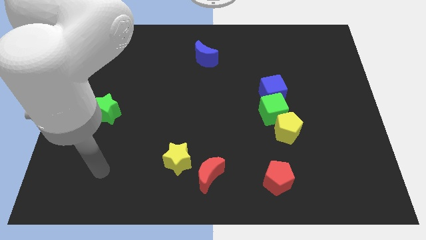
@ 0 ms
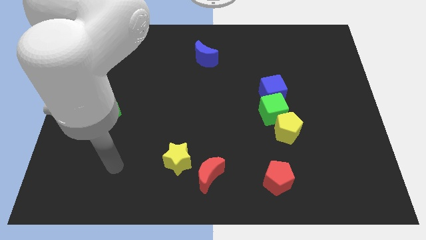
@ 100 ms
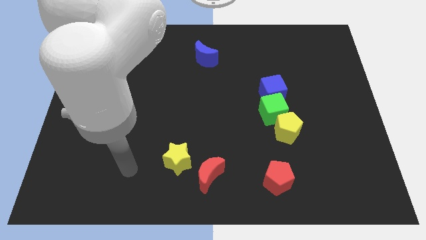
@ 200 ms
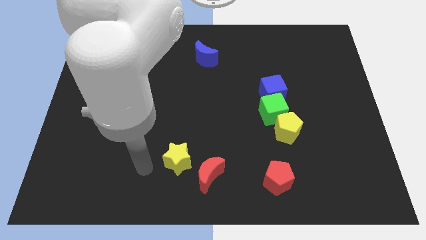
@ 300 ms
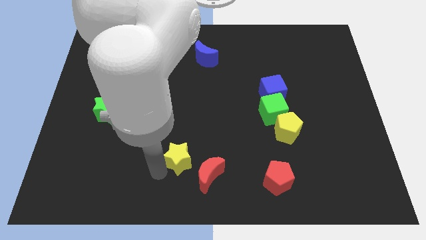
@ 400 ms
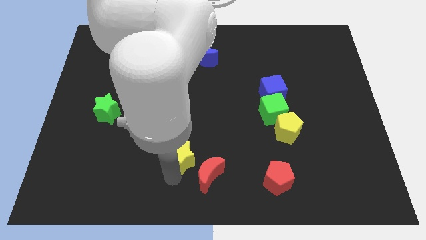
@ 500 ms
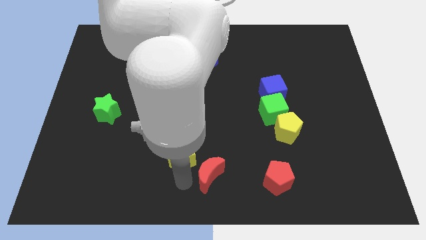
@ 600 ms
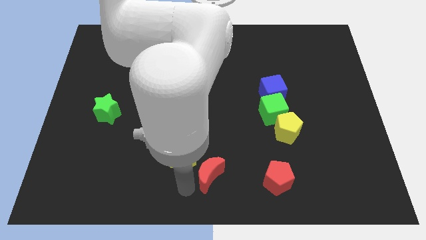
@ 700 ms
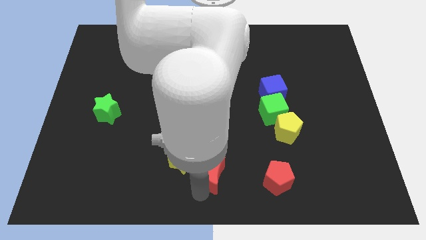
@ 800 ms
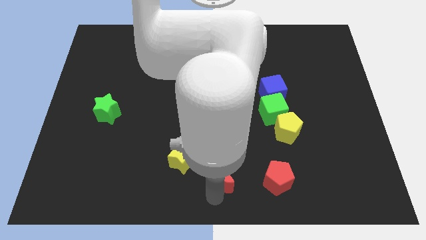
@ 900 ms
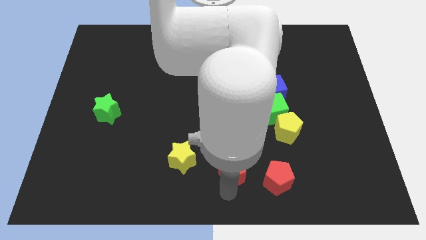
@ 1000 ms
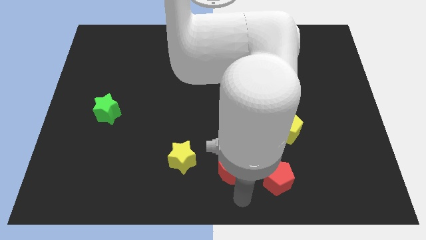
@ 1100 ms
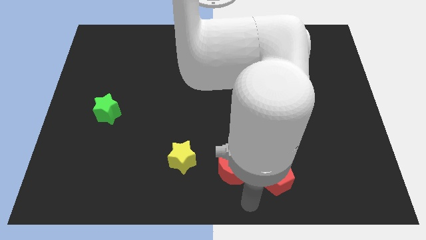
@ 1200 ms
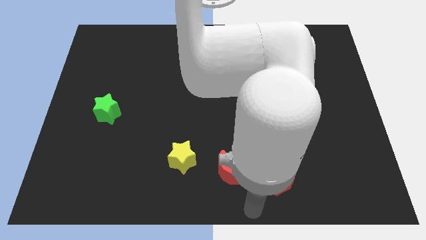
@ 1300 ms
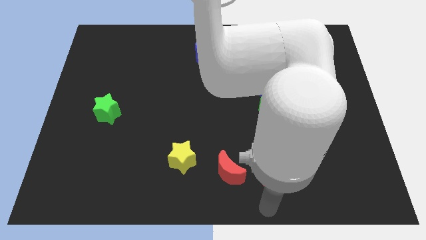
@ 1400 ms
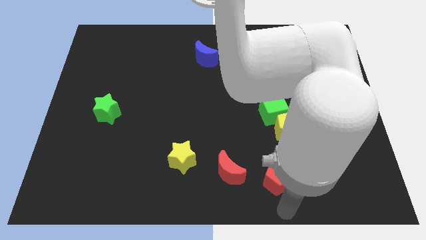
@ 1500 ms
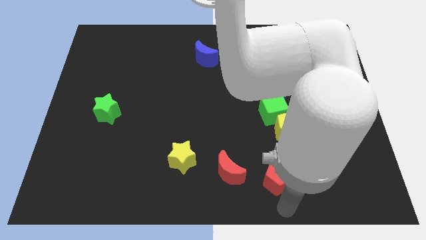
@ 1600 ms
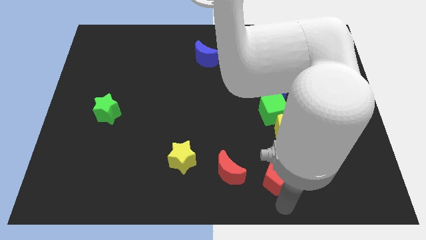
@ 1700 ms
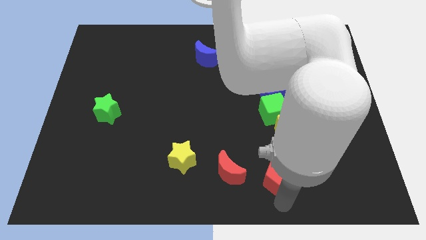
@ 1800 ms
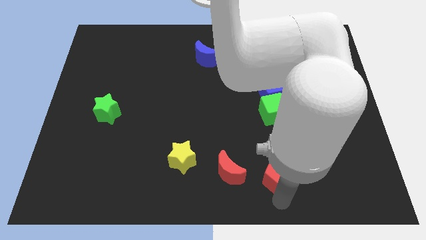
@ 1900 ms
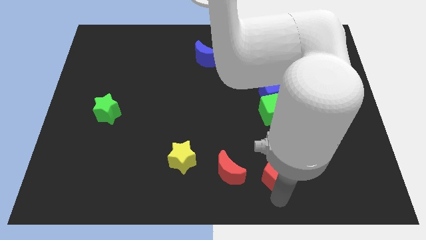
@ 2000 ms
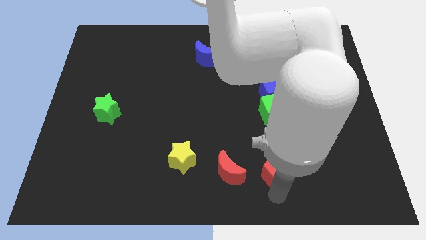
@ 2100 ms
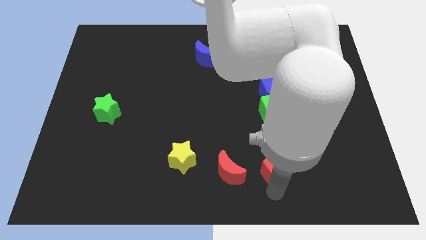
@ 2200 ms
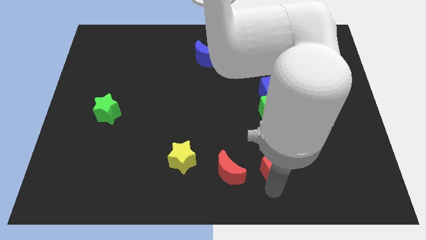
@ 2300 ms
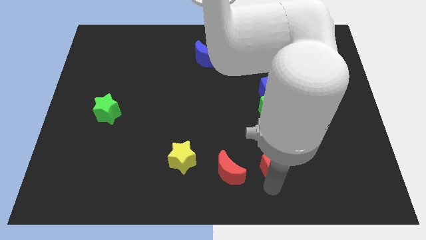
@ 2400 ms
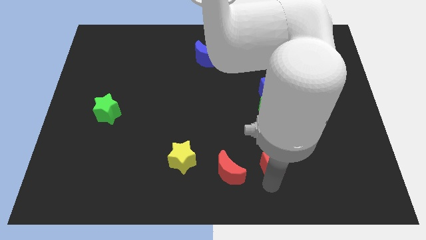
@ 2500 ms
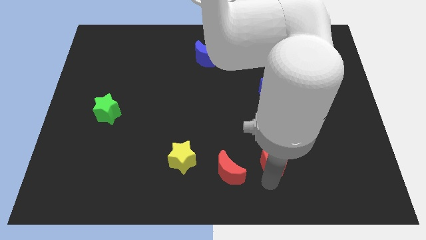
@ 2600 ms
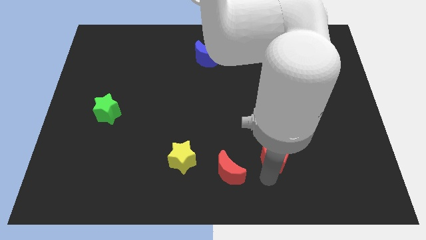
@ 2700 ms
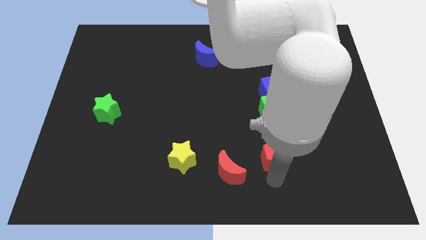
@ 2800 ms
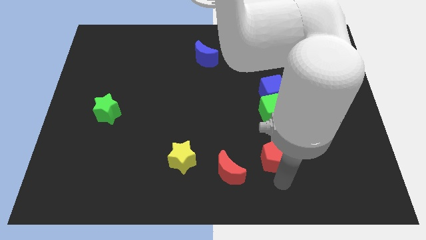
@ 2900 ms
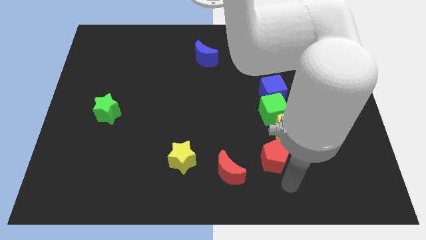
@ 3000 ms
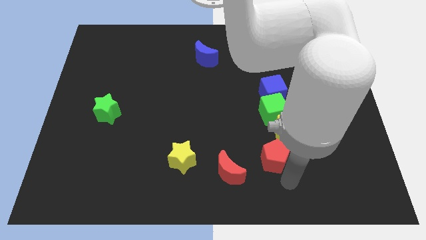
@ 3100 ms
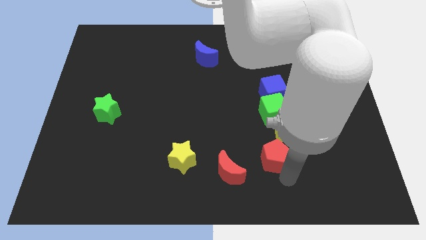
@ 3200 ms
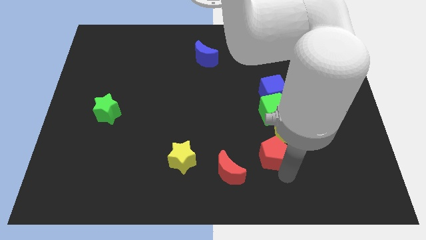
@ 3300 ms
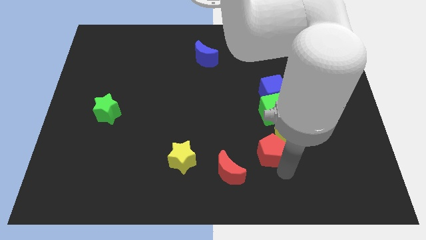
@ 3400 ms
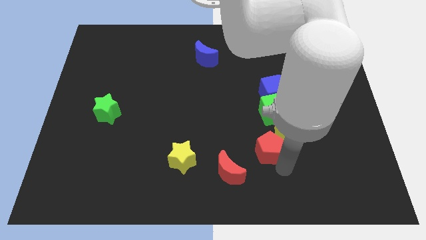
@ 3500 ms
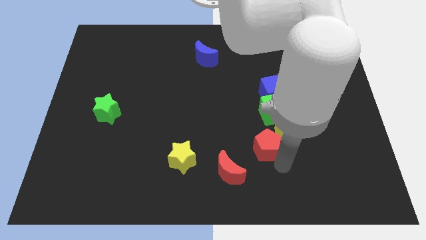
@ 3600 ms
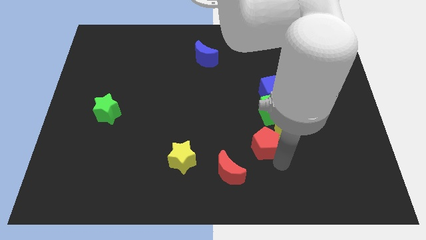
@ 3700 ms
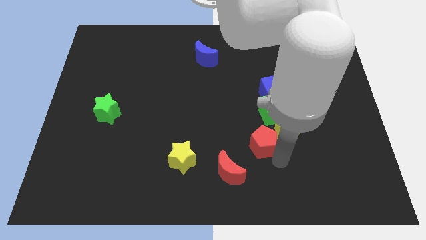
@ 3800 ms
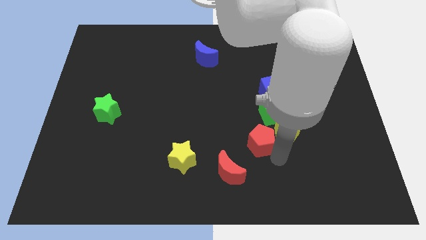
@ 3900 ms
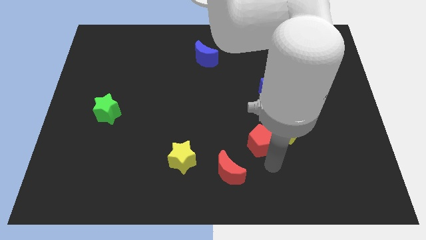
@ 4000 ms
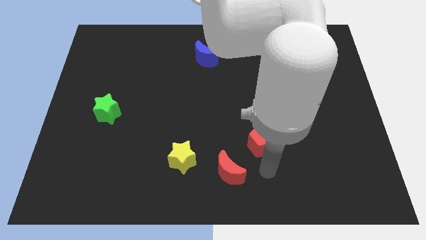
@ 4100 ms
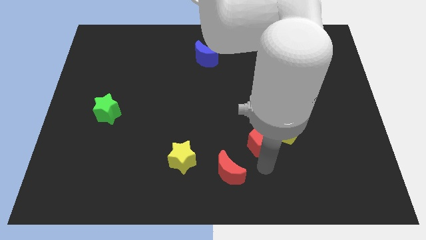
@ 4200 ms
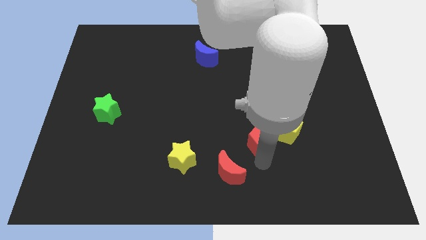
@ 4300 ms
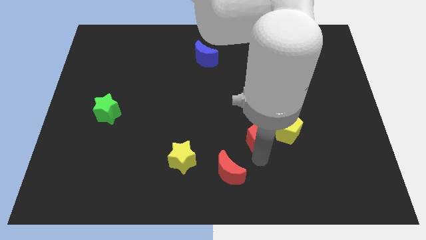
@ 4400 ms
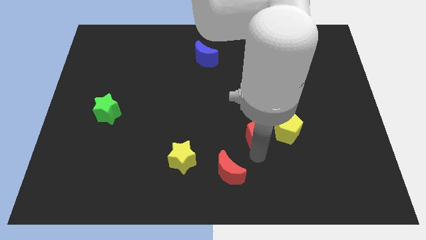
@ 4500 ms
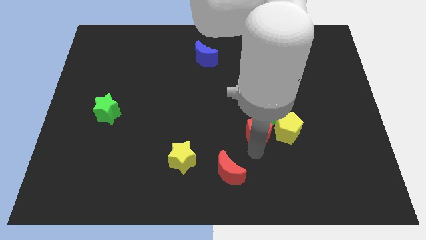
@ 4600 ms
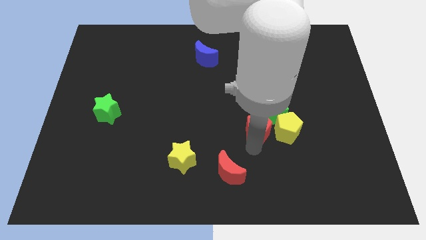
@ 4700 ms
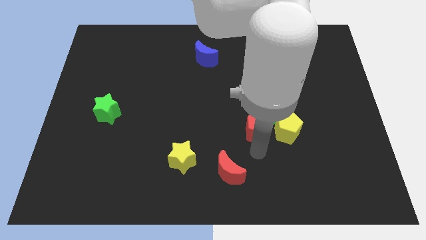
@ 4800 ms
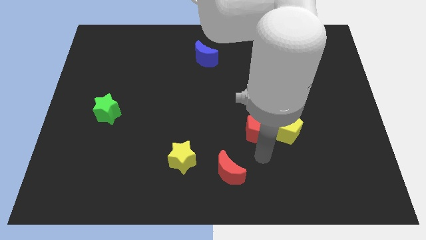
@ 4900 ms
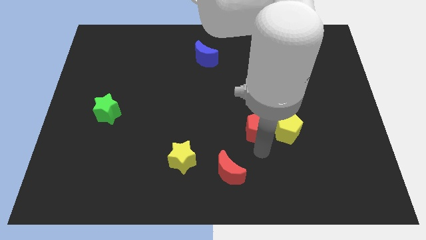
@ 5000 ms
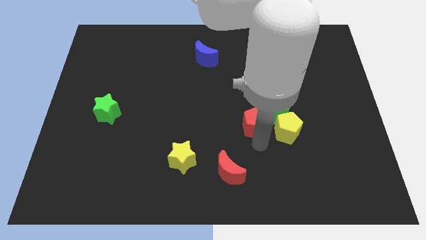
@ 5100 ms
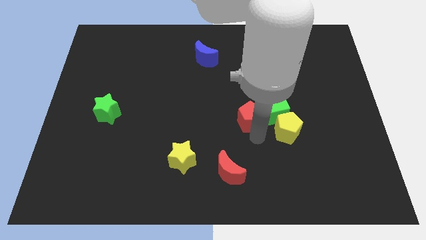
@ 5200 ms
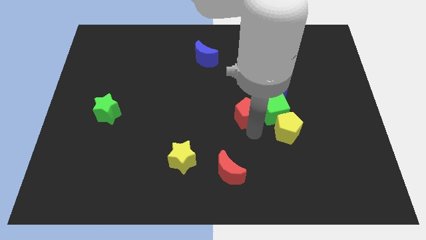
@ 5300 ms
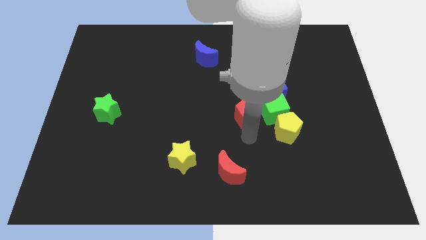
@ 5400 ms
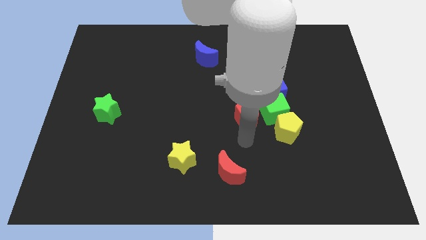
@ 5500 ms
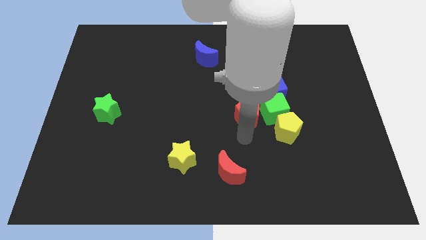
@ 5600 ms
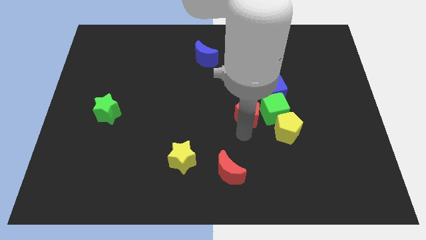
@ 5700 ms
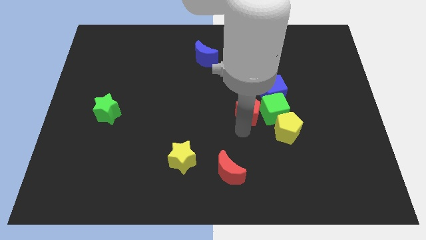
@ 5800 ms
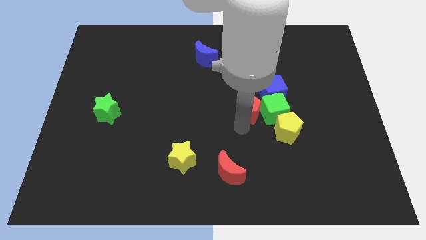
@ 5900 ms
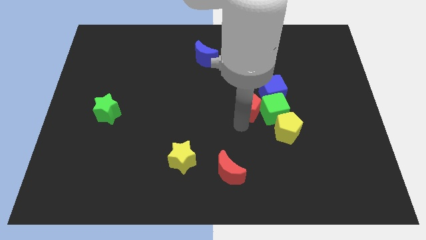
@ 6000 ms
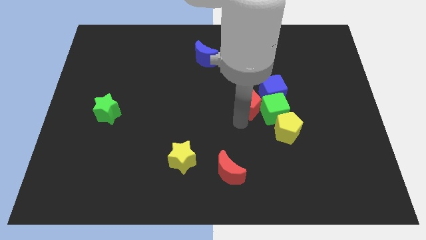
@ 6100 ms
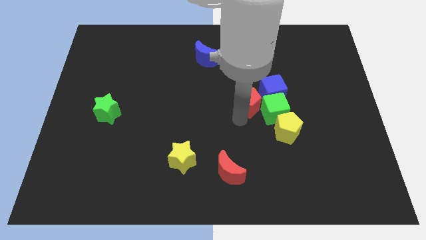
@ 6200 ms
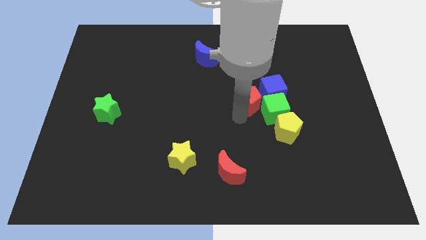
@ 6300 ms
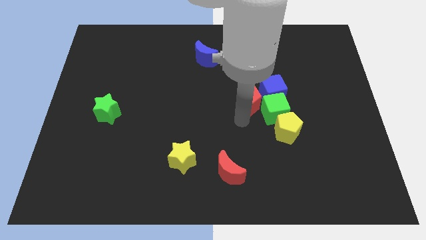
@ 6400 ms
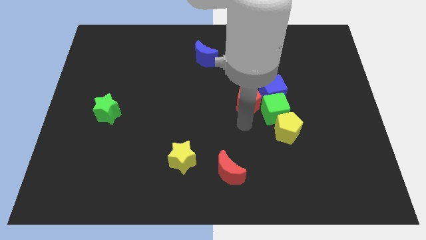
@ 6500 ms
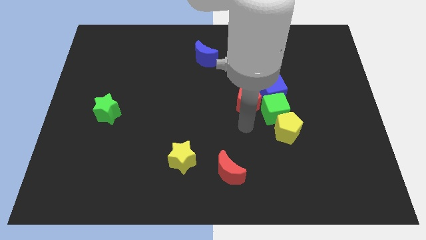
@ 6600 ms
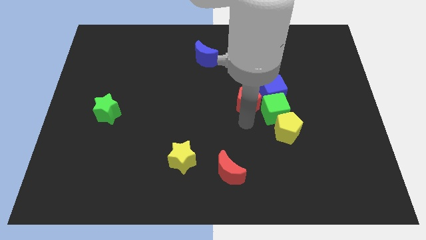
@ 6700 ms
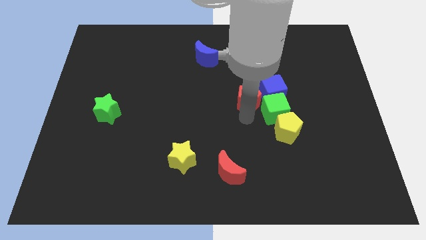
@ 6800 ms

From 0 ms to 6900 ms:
slide the red pentagon upwards

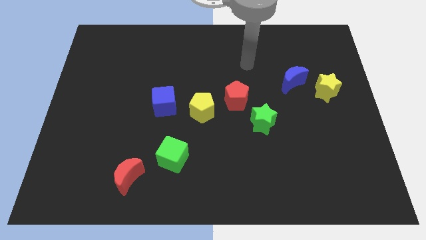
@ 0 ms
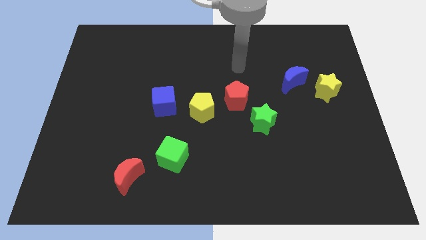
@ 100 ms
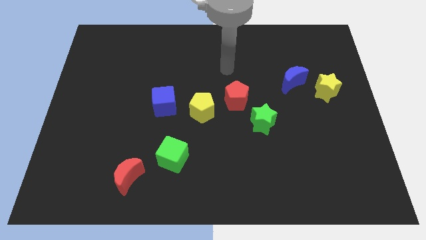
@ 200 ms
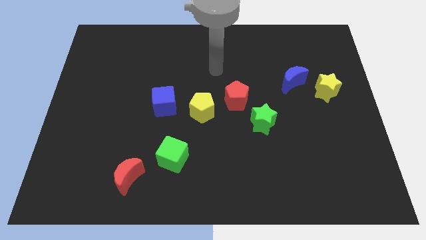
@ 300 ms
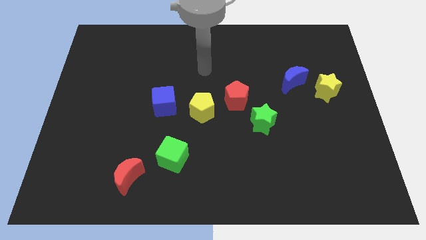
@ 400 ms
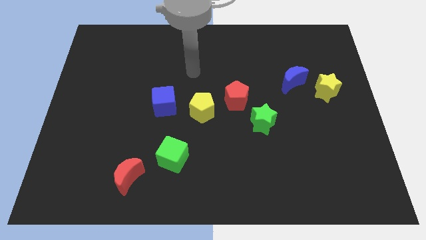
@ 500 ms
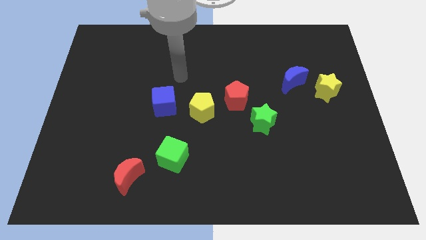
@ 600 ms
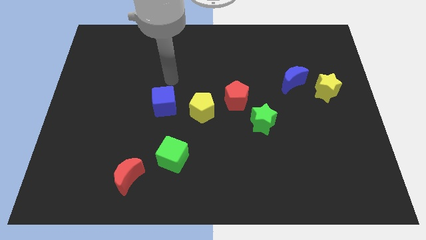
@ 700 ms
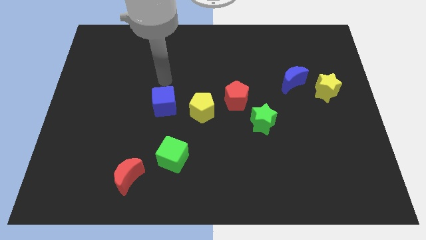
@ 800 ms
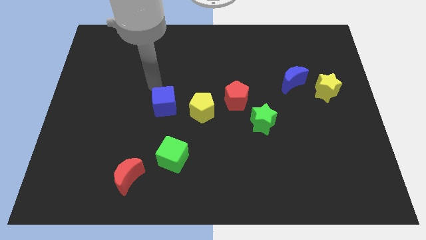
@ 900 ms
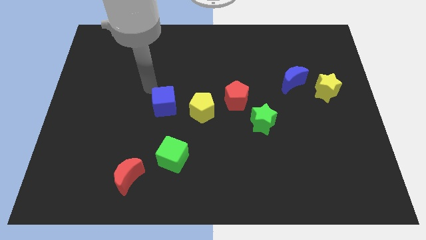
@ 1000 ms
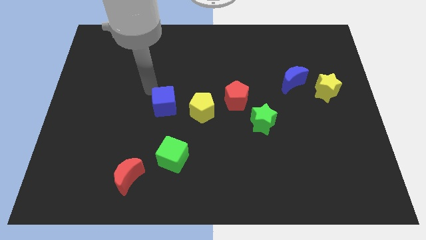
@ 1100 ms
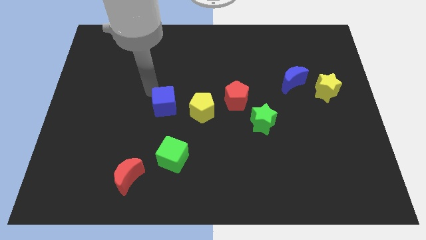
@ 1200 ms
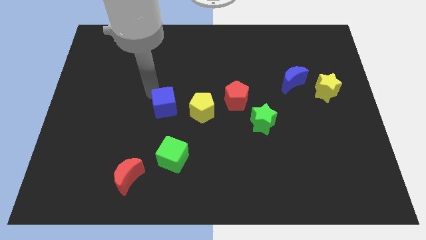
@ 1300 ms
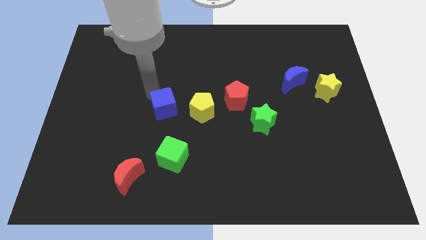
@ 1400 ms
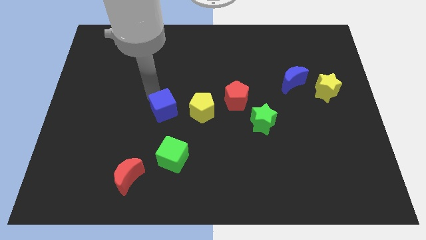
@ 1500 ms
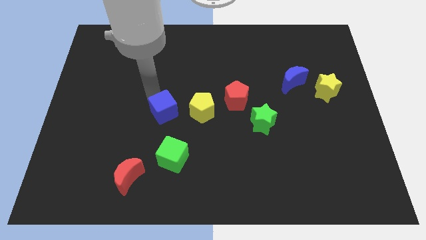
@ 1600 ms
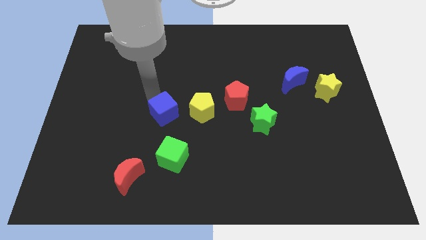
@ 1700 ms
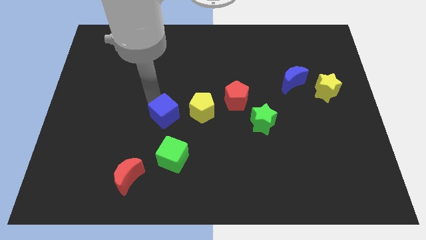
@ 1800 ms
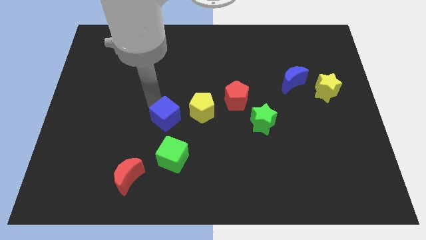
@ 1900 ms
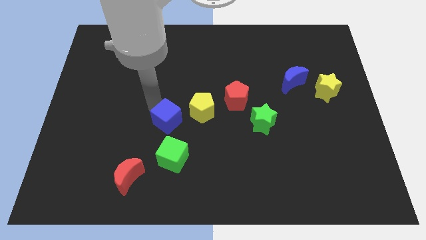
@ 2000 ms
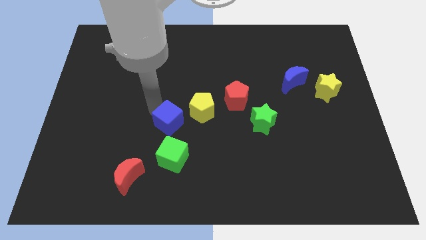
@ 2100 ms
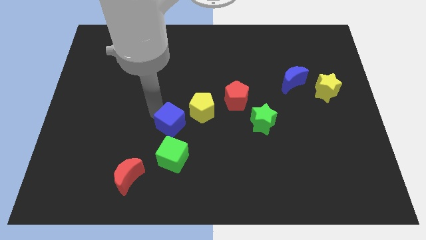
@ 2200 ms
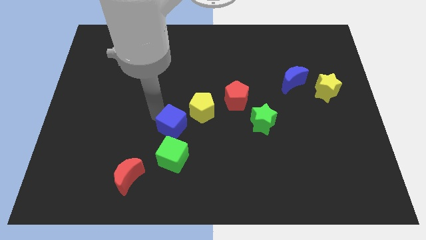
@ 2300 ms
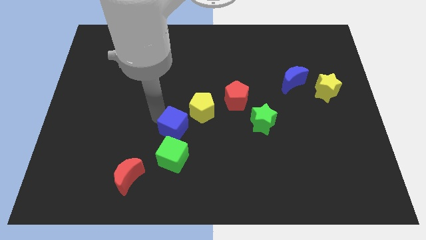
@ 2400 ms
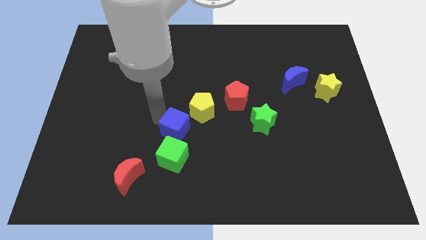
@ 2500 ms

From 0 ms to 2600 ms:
move the blue cube a little downwards and right
